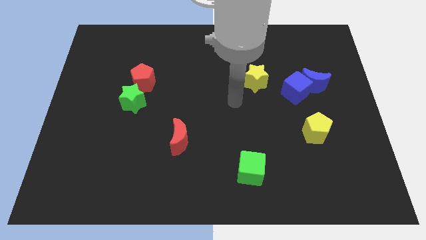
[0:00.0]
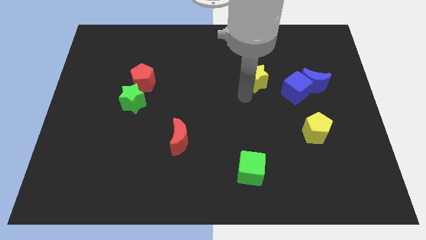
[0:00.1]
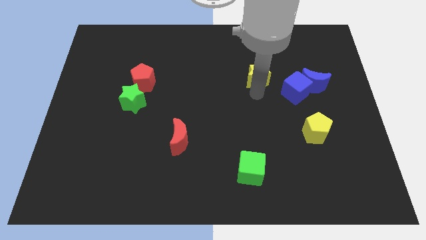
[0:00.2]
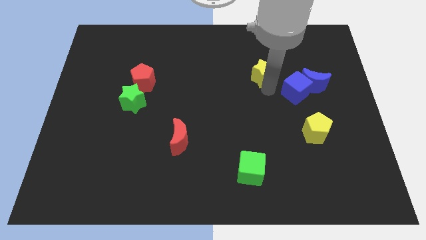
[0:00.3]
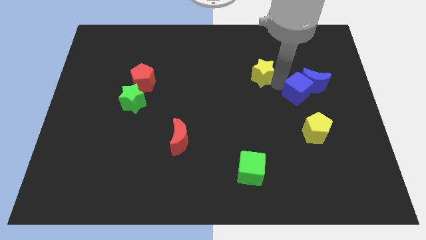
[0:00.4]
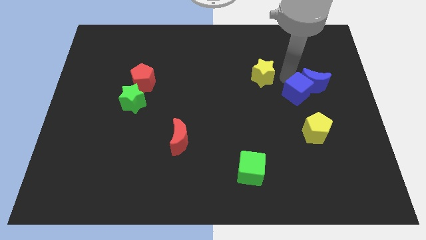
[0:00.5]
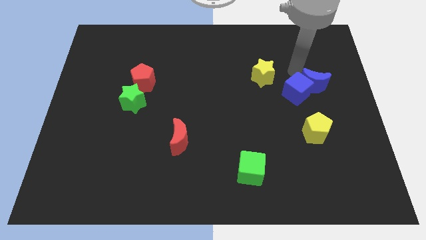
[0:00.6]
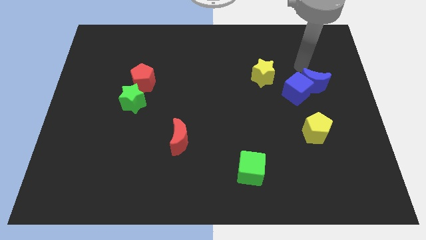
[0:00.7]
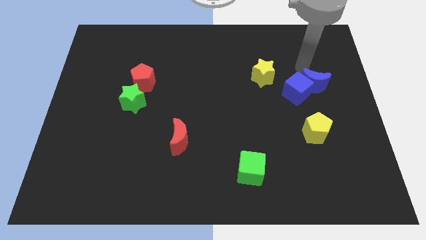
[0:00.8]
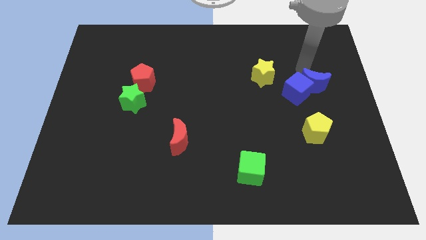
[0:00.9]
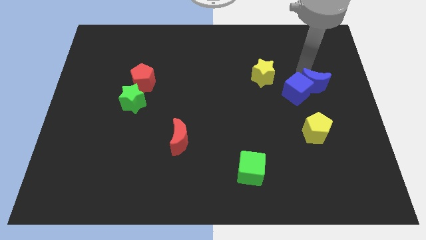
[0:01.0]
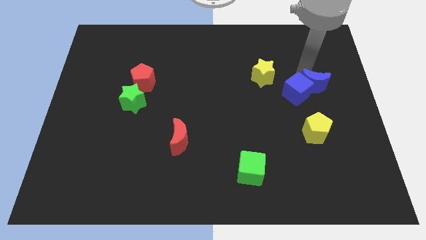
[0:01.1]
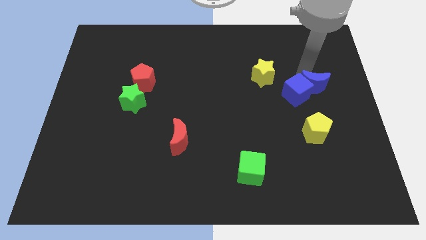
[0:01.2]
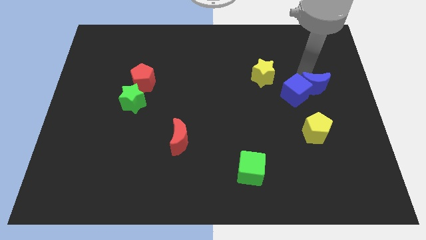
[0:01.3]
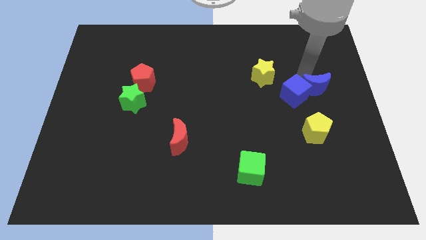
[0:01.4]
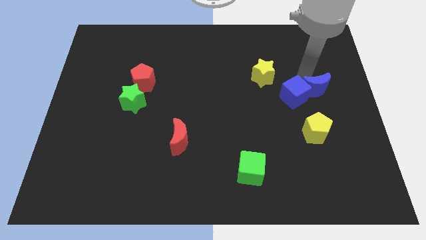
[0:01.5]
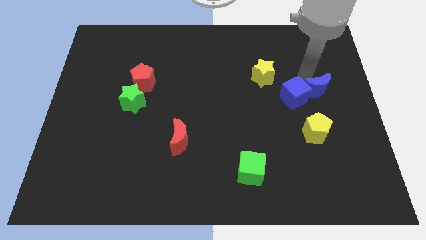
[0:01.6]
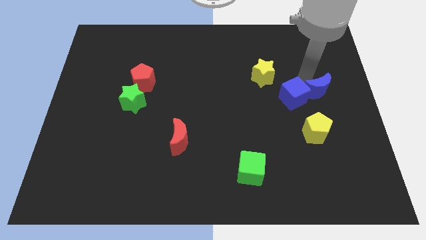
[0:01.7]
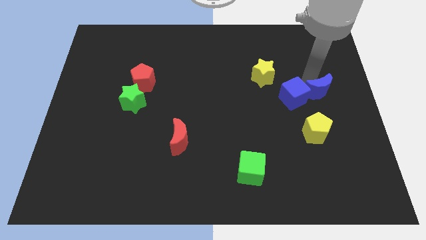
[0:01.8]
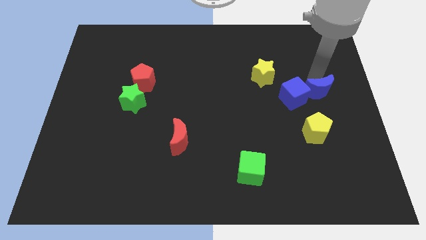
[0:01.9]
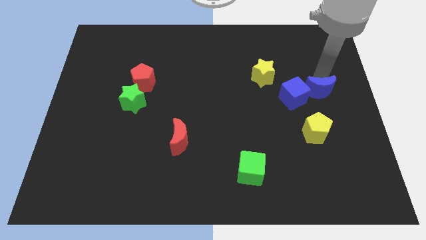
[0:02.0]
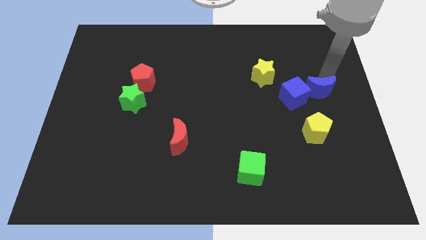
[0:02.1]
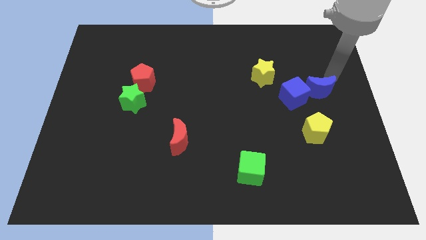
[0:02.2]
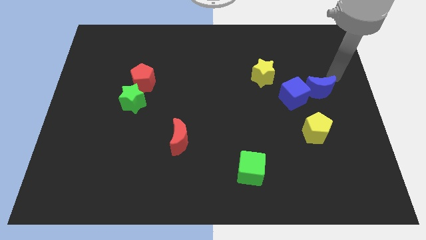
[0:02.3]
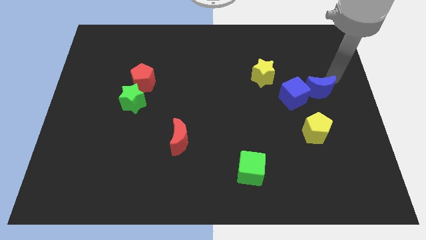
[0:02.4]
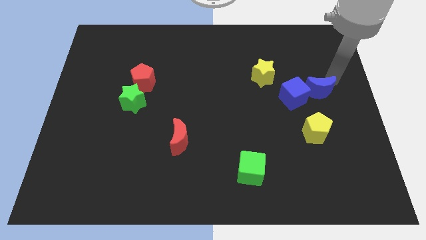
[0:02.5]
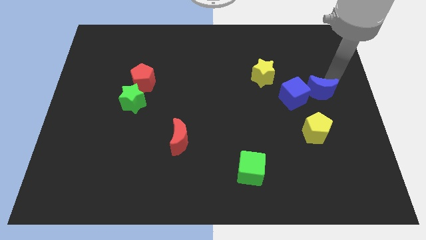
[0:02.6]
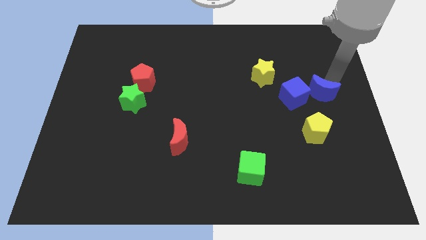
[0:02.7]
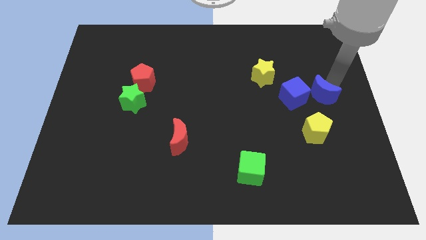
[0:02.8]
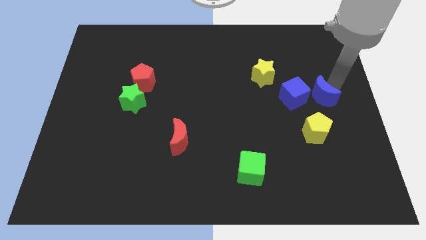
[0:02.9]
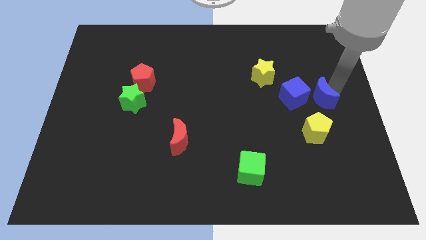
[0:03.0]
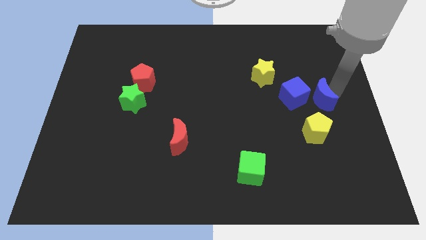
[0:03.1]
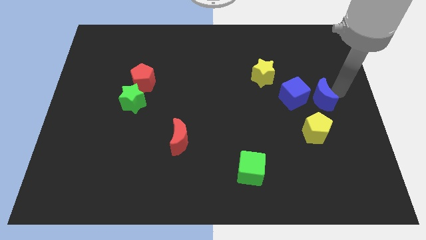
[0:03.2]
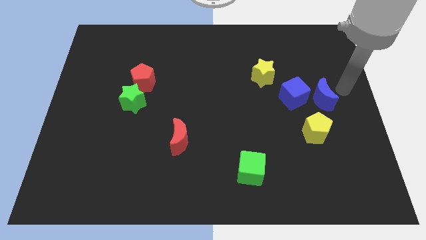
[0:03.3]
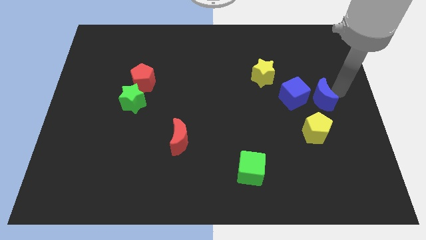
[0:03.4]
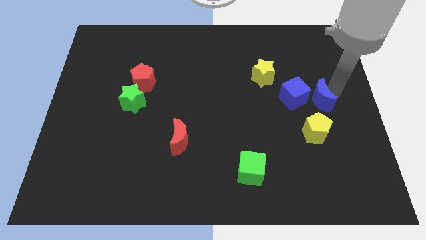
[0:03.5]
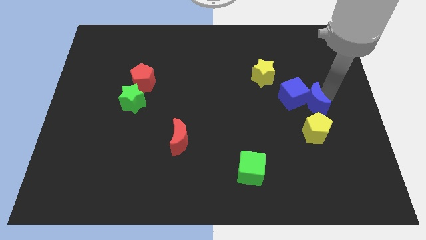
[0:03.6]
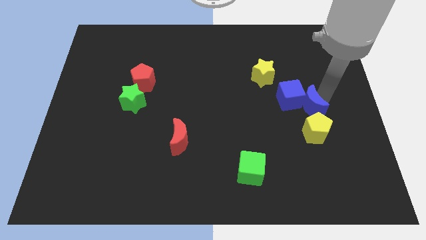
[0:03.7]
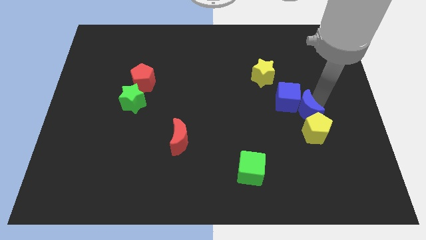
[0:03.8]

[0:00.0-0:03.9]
slightly push the blue moon downwards and left diagonally

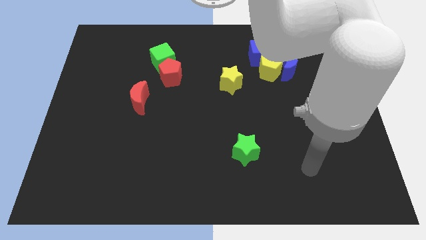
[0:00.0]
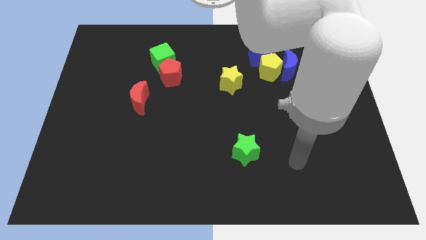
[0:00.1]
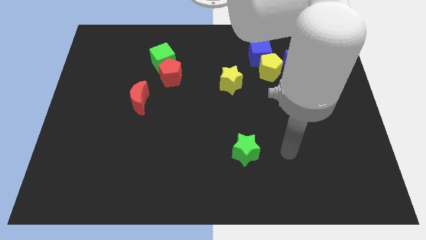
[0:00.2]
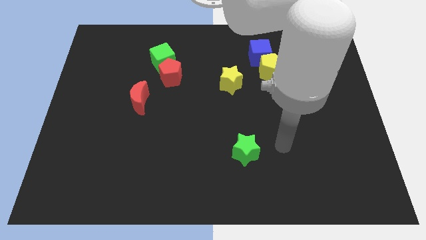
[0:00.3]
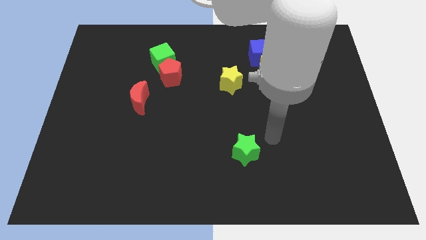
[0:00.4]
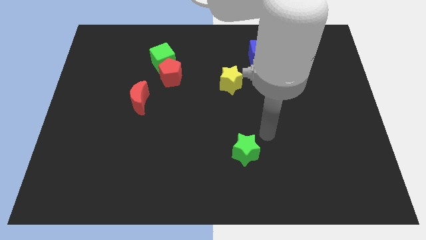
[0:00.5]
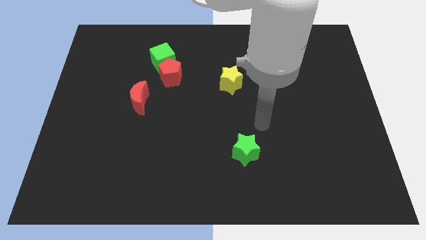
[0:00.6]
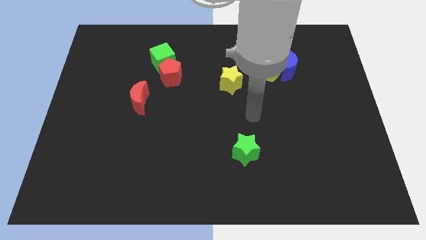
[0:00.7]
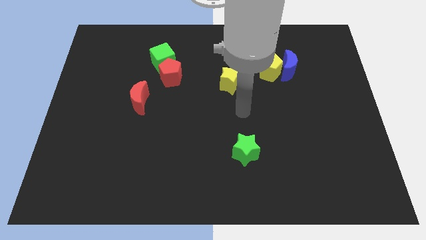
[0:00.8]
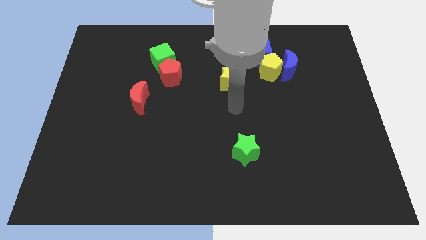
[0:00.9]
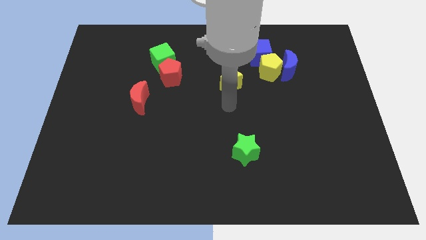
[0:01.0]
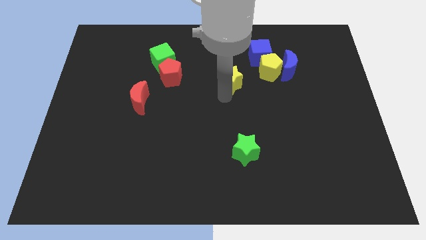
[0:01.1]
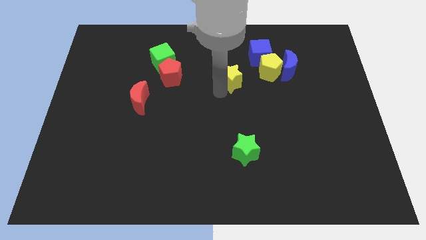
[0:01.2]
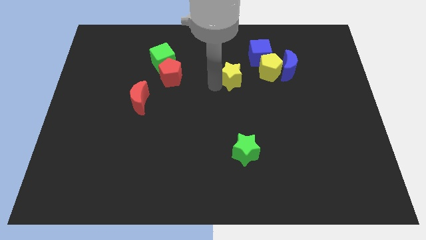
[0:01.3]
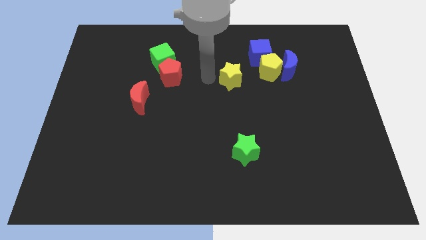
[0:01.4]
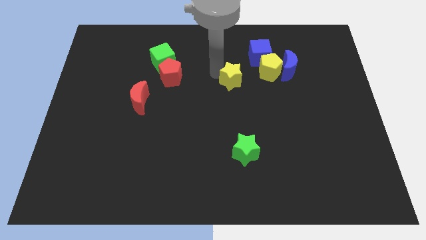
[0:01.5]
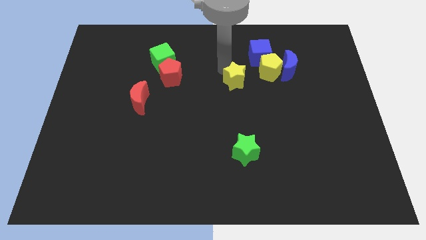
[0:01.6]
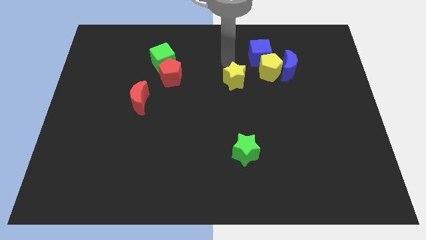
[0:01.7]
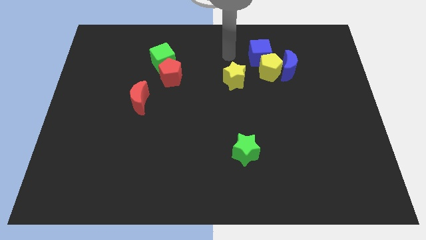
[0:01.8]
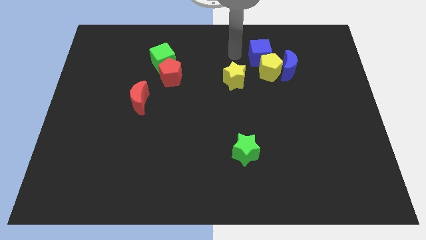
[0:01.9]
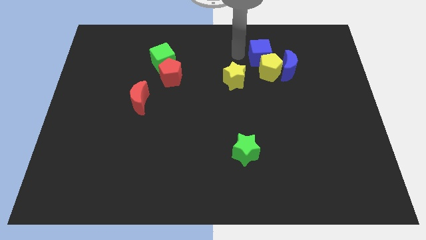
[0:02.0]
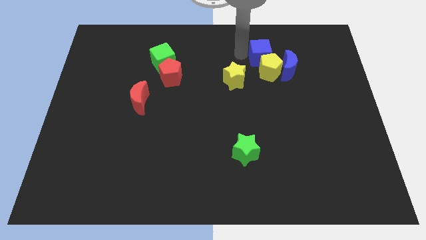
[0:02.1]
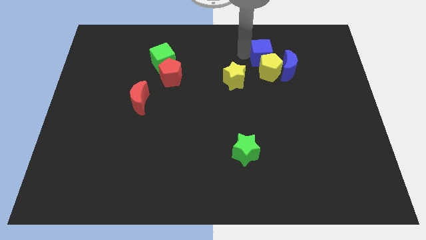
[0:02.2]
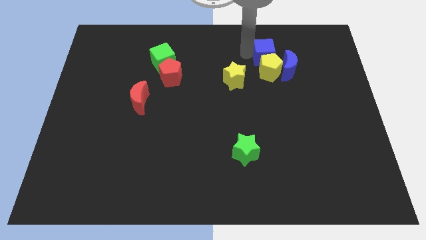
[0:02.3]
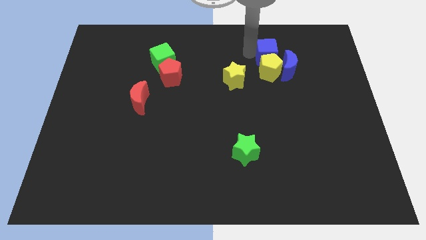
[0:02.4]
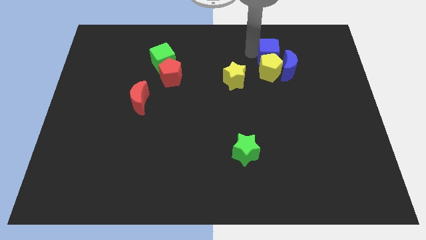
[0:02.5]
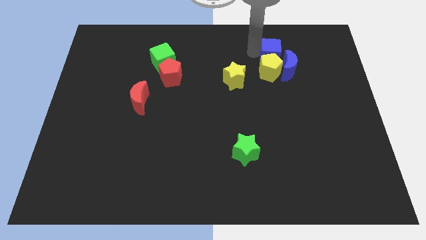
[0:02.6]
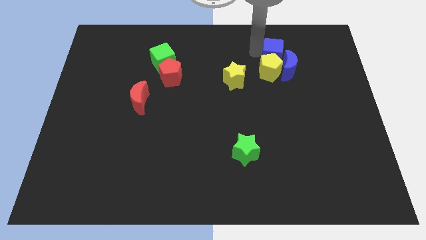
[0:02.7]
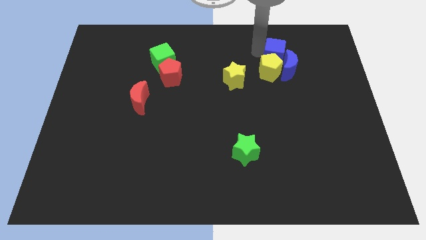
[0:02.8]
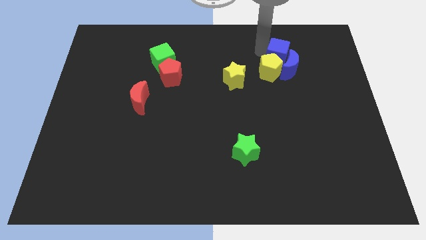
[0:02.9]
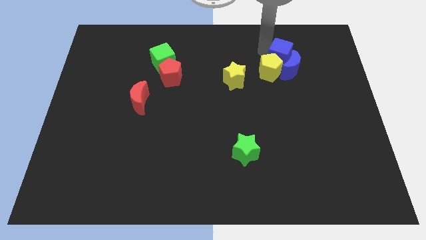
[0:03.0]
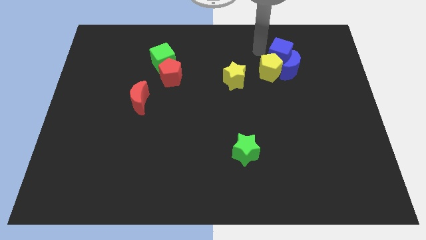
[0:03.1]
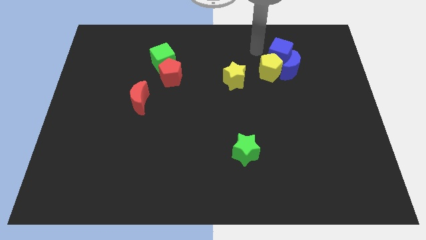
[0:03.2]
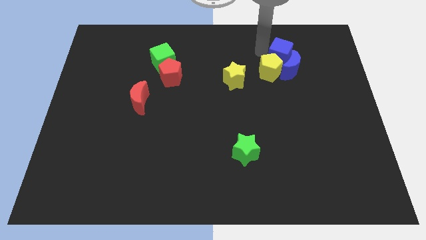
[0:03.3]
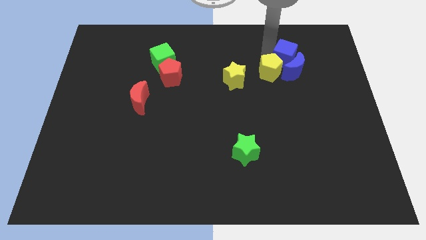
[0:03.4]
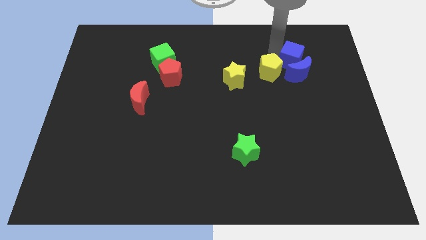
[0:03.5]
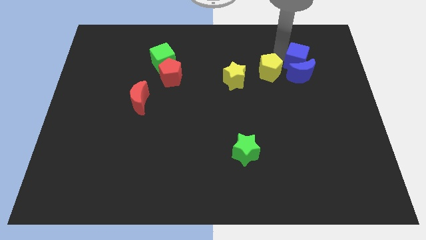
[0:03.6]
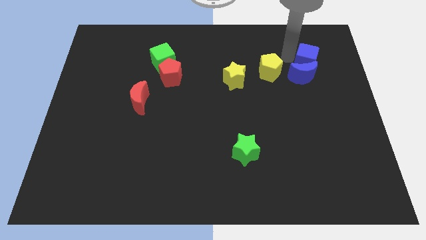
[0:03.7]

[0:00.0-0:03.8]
move the blue cube a bit down and to the right

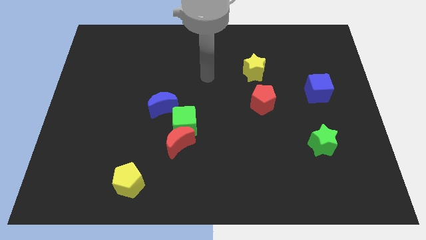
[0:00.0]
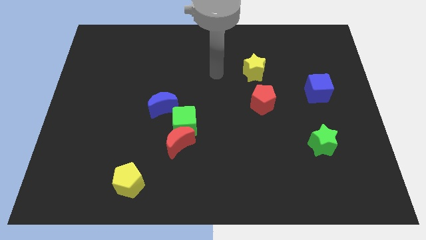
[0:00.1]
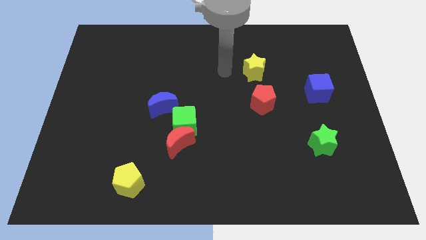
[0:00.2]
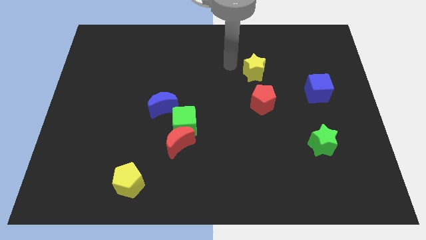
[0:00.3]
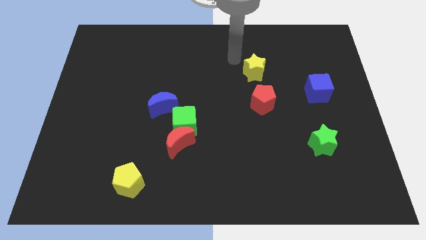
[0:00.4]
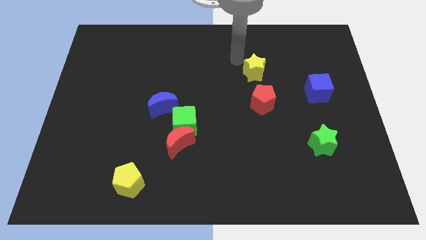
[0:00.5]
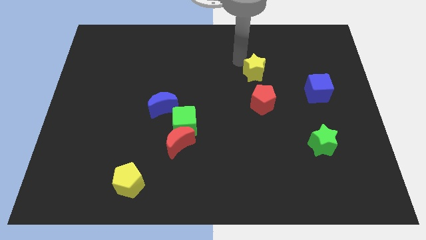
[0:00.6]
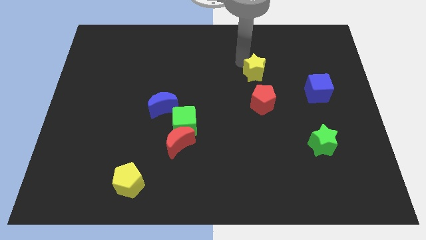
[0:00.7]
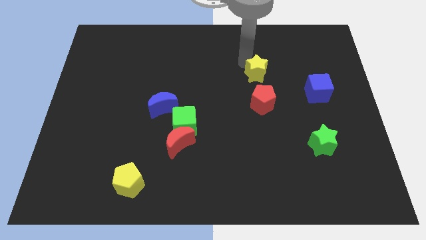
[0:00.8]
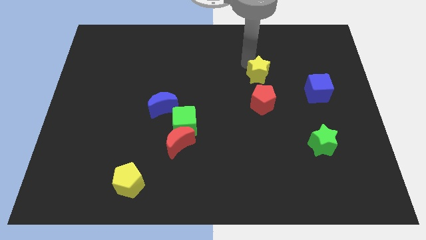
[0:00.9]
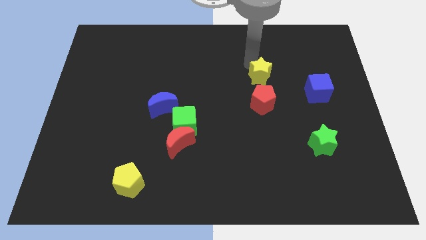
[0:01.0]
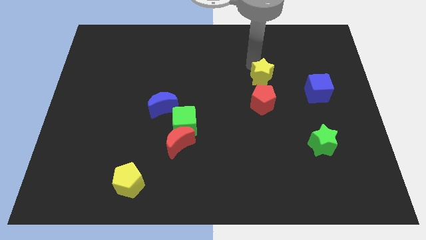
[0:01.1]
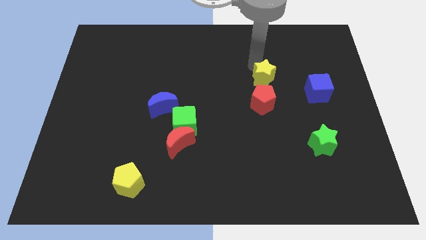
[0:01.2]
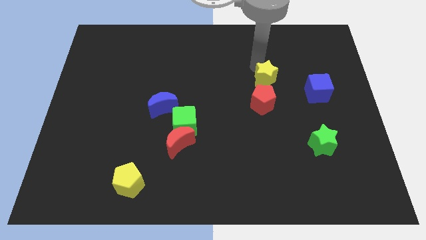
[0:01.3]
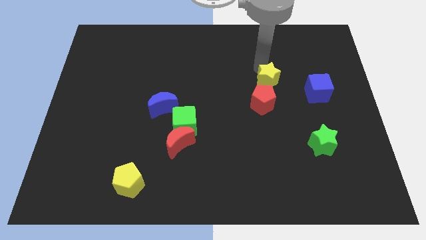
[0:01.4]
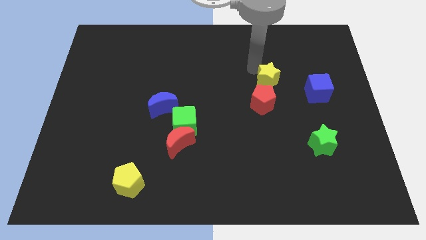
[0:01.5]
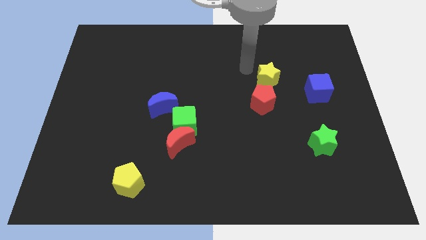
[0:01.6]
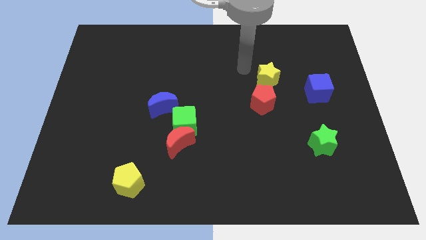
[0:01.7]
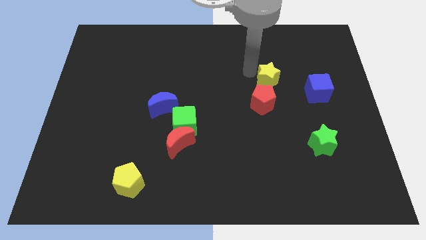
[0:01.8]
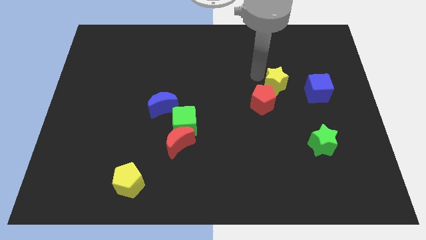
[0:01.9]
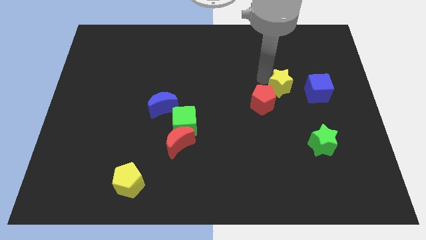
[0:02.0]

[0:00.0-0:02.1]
move the yellow star down and to the right a bit
